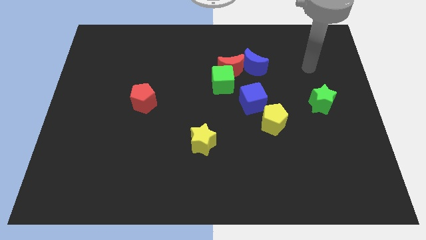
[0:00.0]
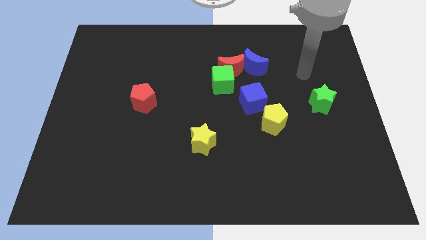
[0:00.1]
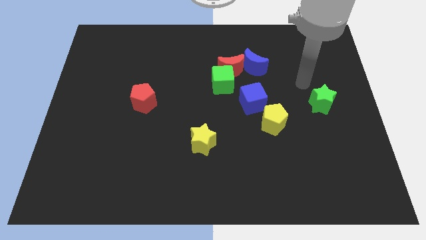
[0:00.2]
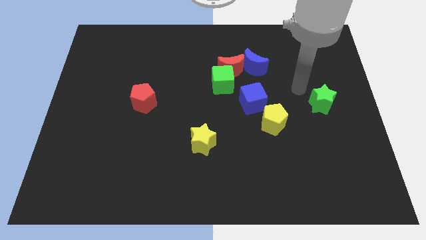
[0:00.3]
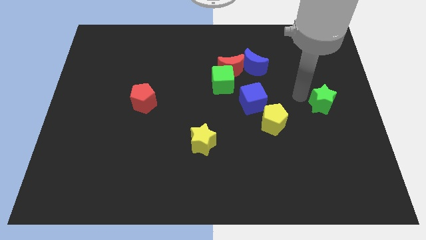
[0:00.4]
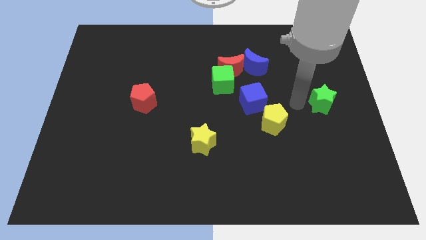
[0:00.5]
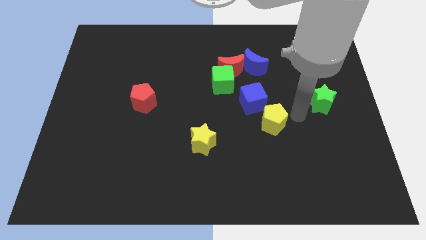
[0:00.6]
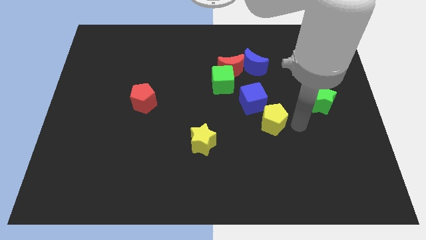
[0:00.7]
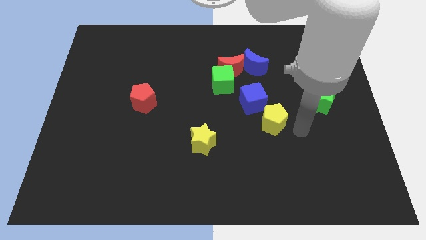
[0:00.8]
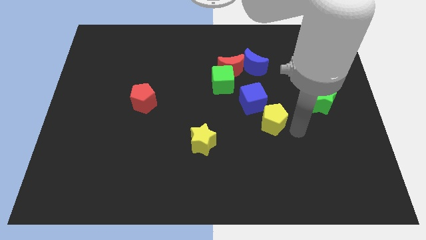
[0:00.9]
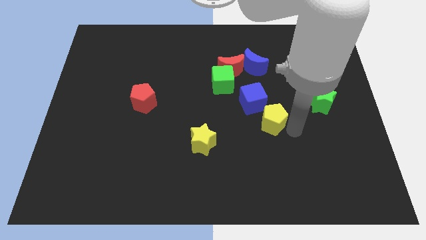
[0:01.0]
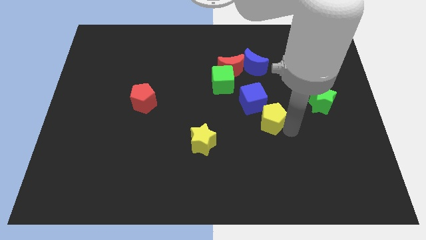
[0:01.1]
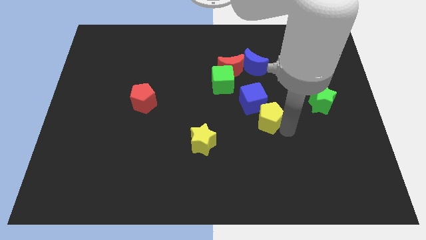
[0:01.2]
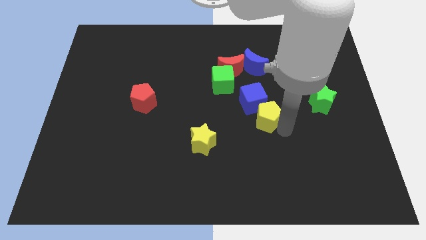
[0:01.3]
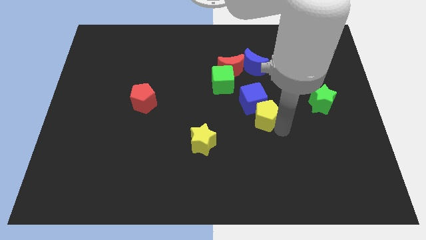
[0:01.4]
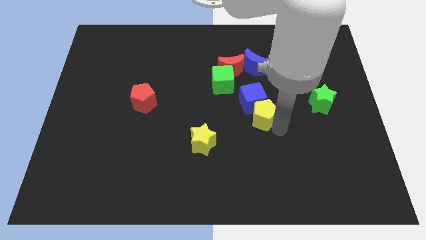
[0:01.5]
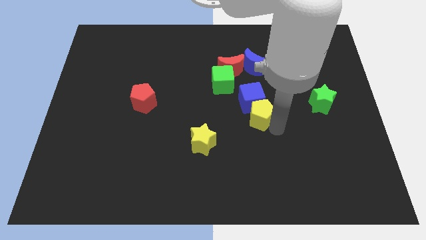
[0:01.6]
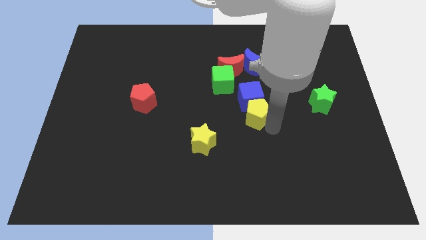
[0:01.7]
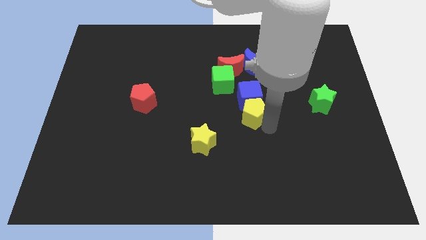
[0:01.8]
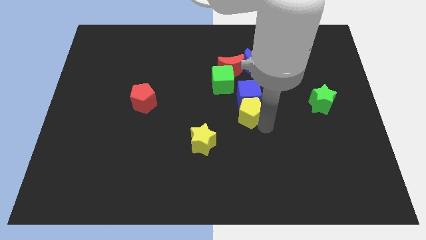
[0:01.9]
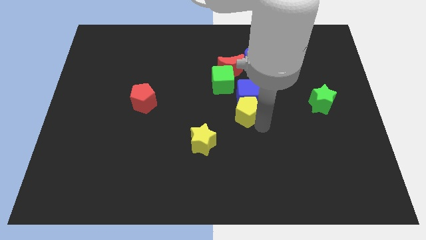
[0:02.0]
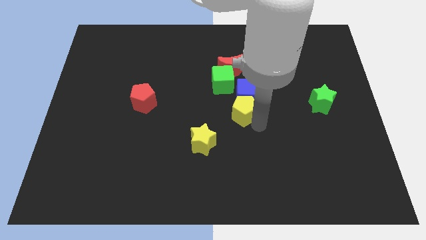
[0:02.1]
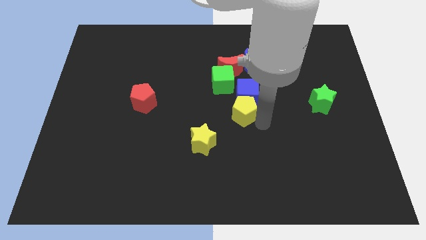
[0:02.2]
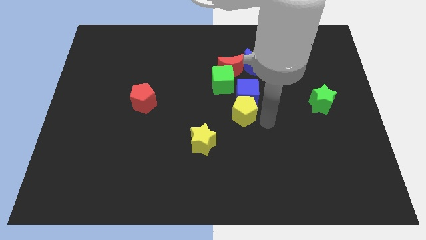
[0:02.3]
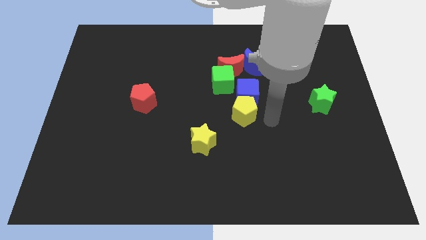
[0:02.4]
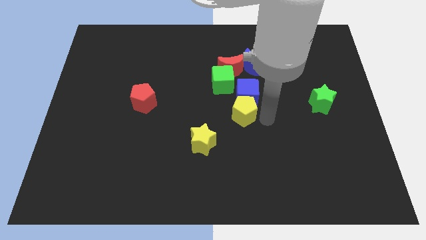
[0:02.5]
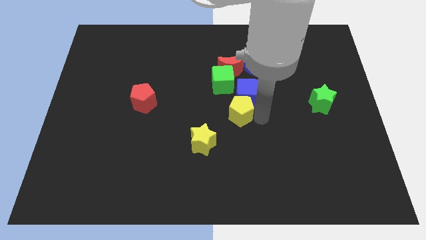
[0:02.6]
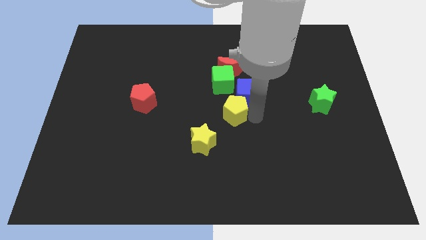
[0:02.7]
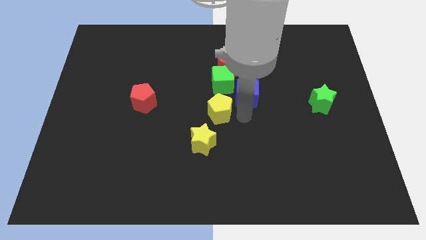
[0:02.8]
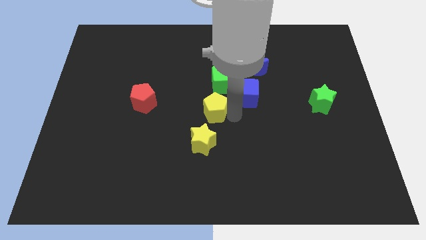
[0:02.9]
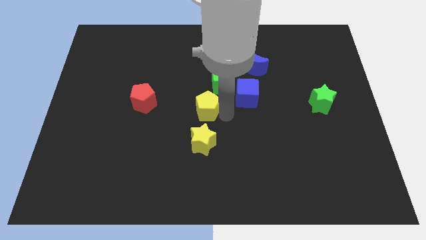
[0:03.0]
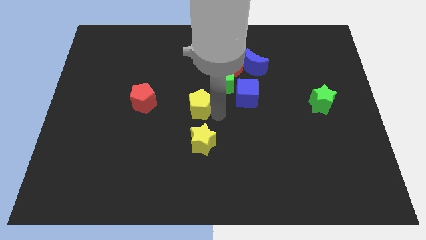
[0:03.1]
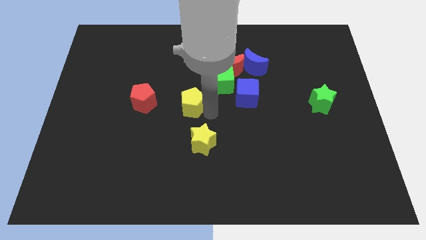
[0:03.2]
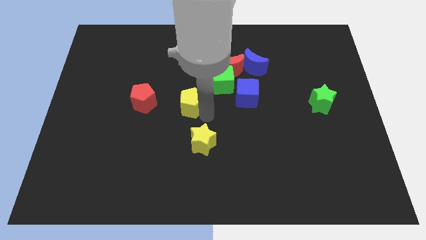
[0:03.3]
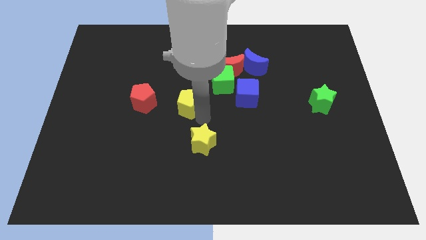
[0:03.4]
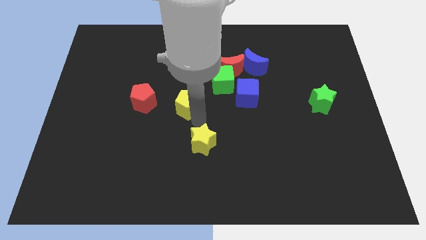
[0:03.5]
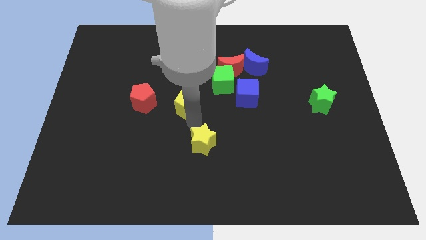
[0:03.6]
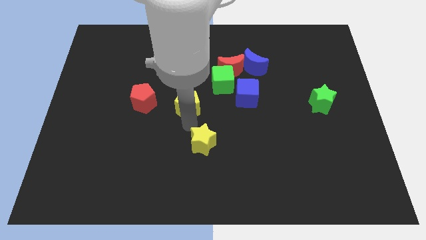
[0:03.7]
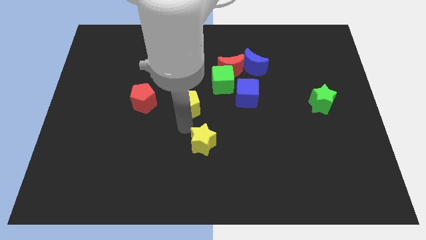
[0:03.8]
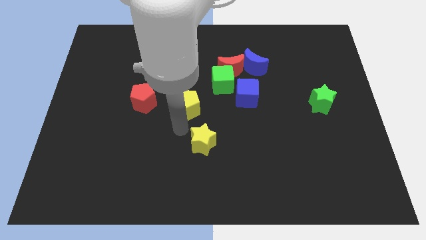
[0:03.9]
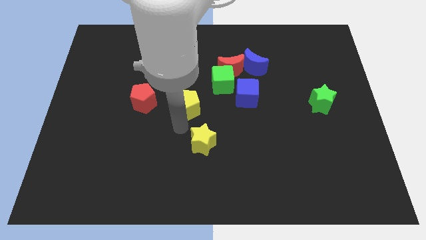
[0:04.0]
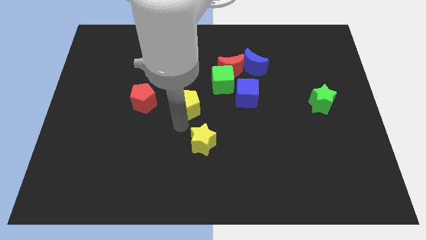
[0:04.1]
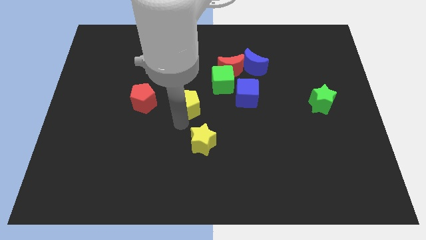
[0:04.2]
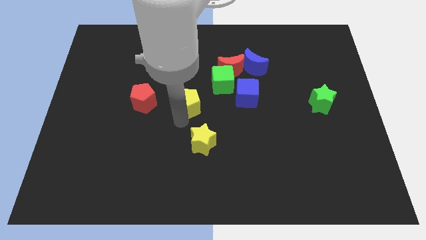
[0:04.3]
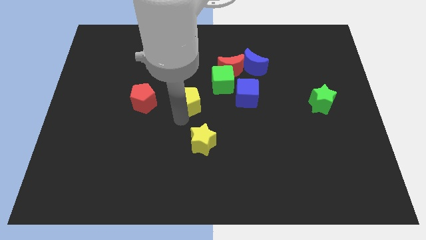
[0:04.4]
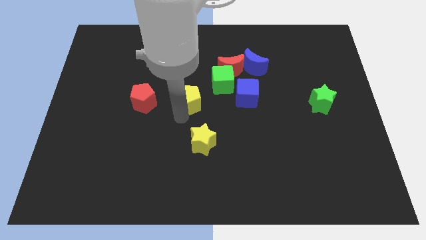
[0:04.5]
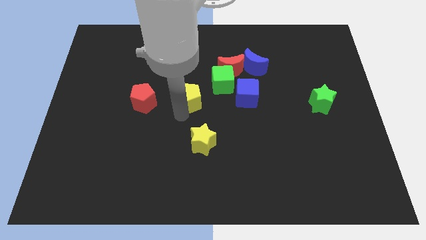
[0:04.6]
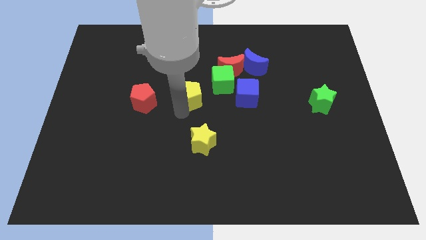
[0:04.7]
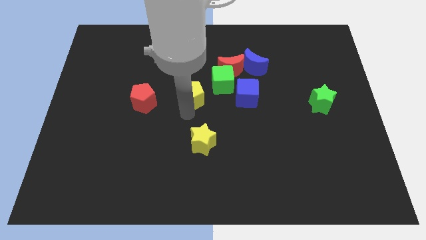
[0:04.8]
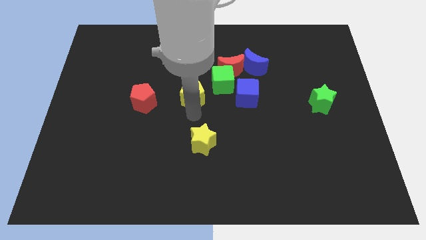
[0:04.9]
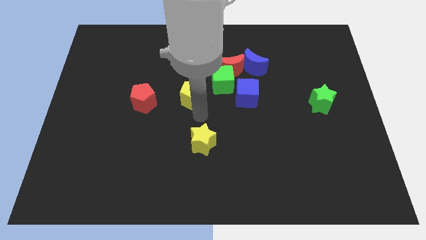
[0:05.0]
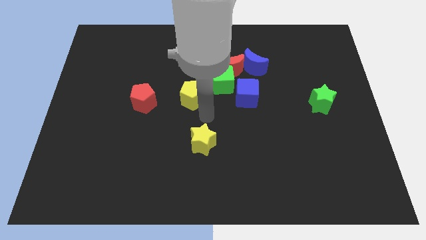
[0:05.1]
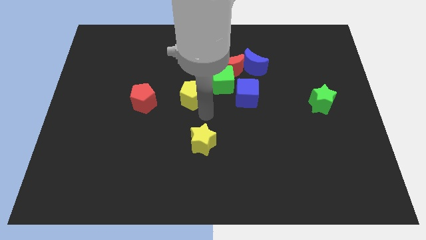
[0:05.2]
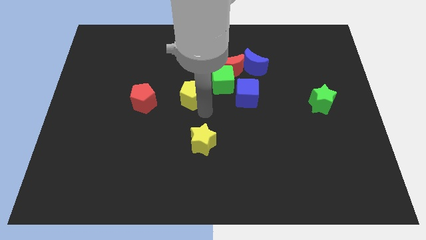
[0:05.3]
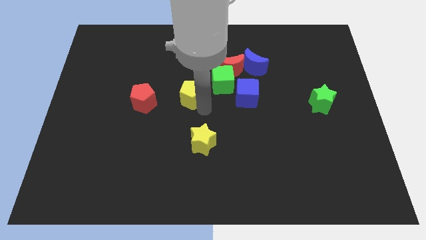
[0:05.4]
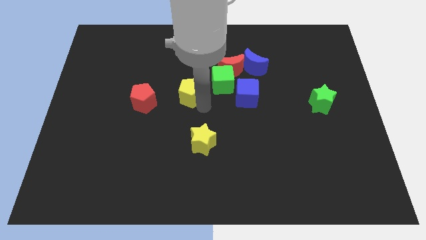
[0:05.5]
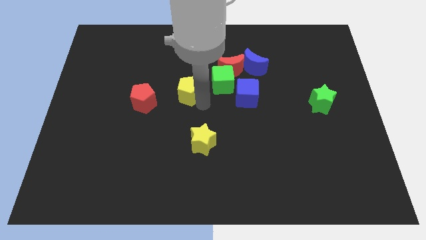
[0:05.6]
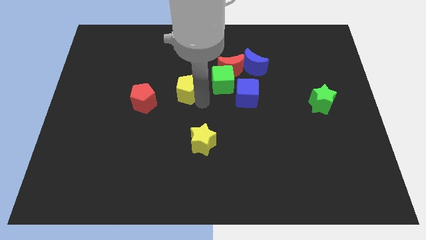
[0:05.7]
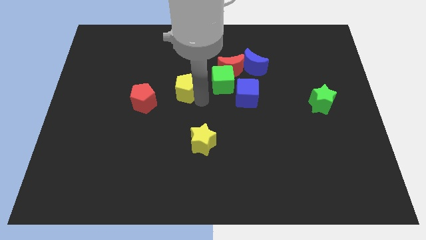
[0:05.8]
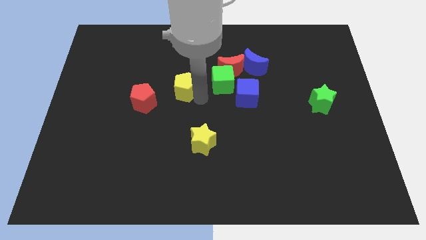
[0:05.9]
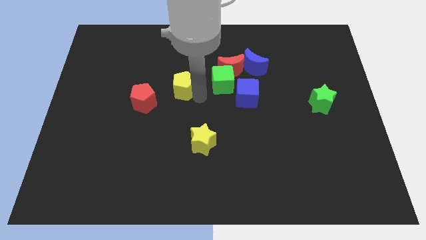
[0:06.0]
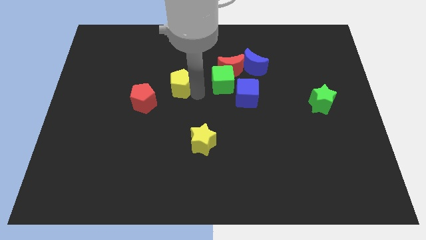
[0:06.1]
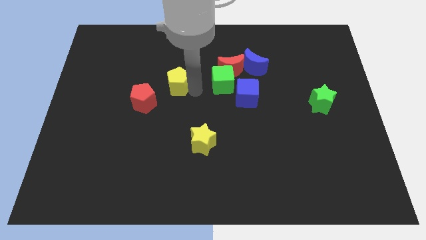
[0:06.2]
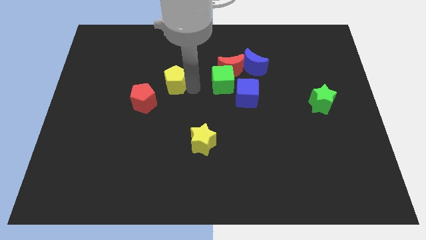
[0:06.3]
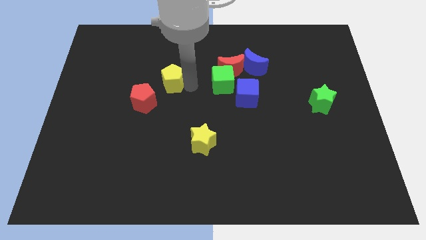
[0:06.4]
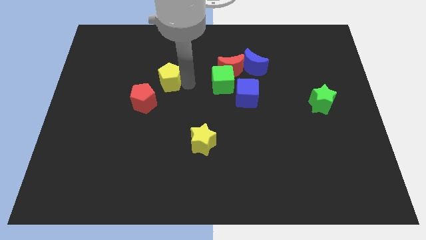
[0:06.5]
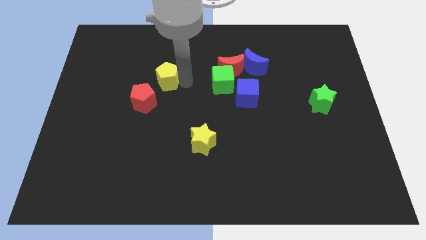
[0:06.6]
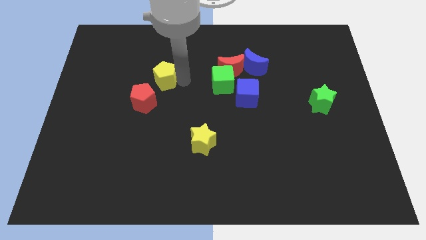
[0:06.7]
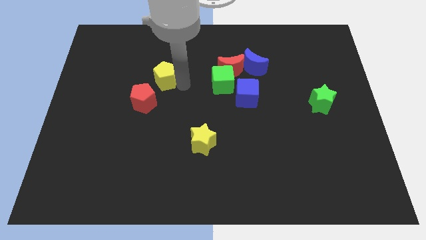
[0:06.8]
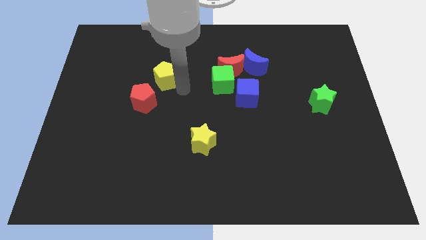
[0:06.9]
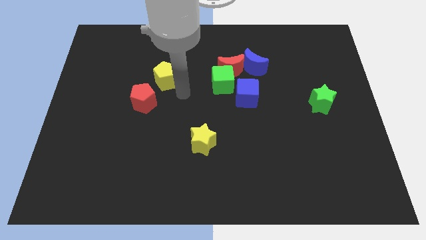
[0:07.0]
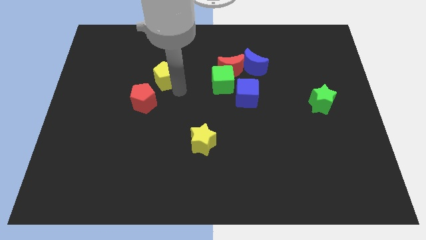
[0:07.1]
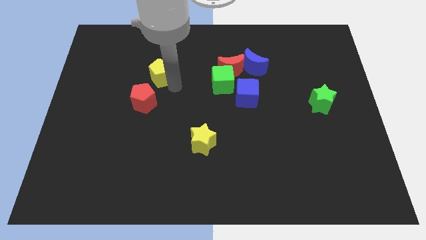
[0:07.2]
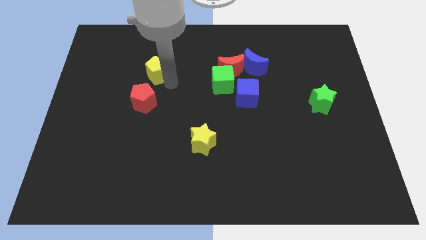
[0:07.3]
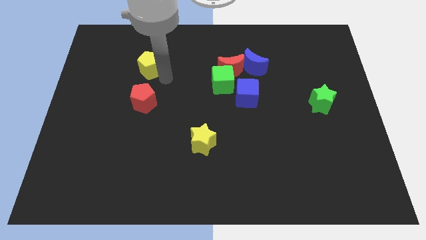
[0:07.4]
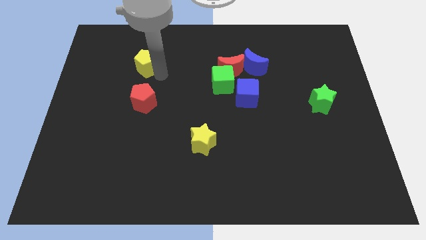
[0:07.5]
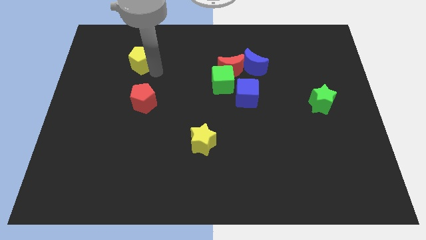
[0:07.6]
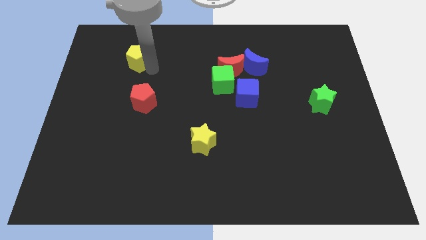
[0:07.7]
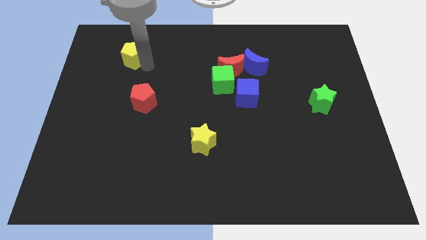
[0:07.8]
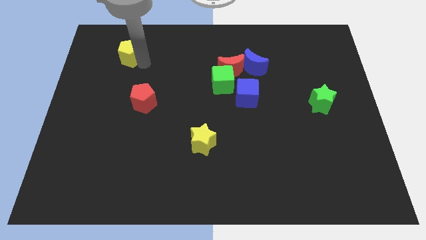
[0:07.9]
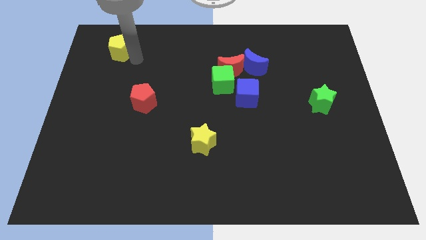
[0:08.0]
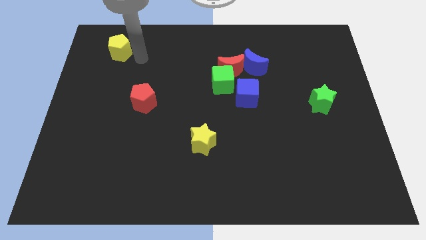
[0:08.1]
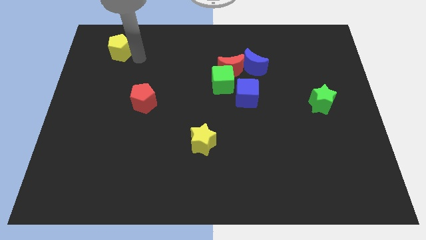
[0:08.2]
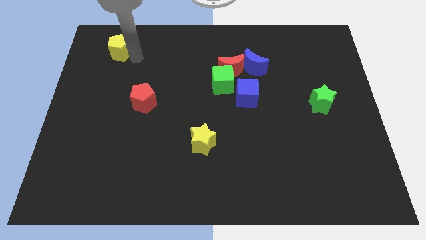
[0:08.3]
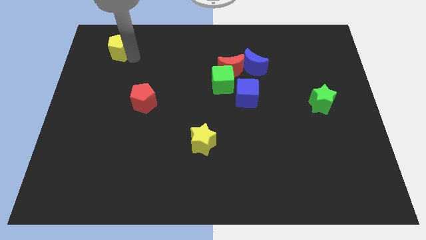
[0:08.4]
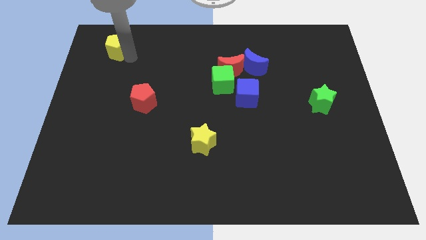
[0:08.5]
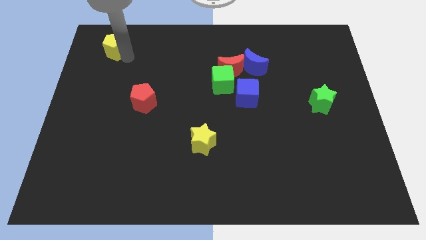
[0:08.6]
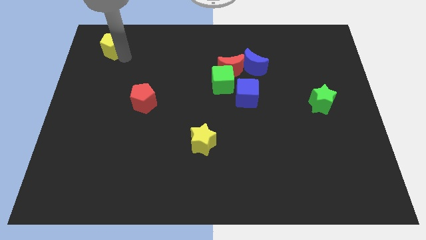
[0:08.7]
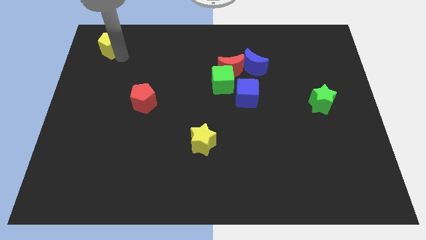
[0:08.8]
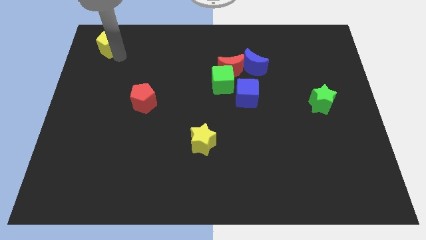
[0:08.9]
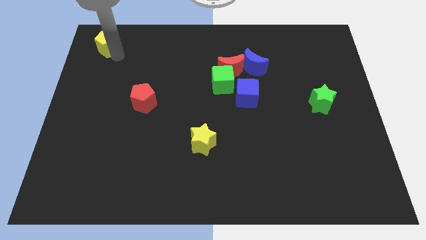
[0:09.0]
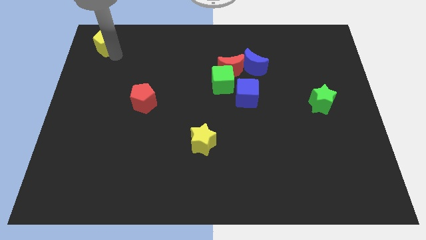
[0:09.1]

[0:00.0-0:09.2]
push the yellow pentagon to the top left of the board
